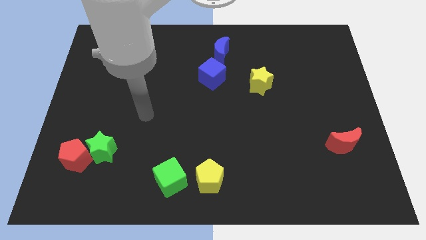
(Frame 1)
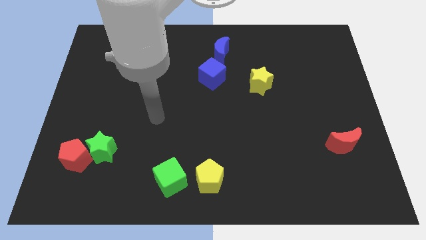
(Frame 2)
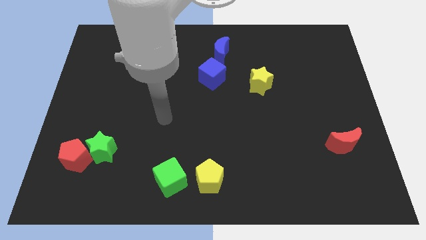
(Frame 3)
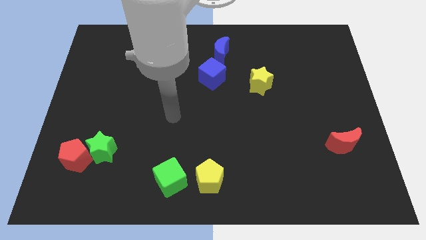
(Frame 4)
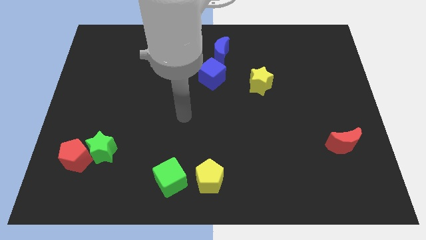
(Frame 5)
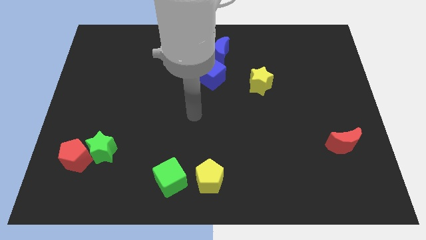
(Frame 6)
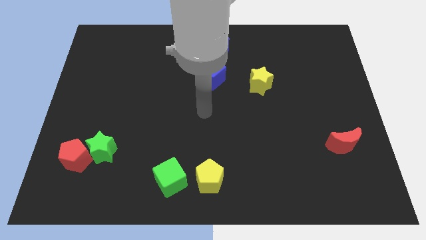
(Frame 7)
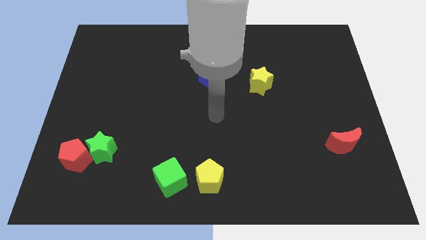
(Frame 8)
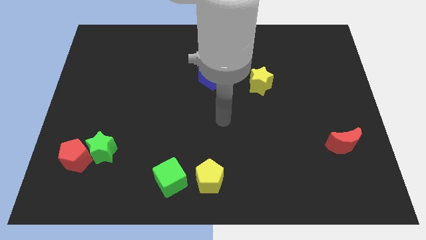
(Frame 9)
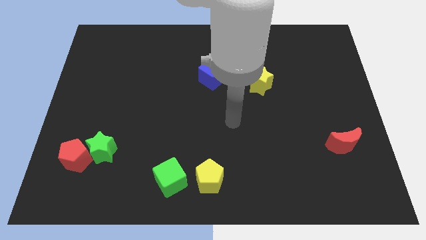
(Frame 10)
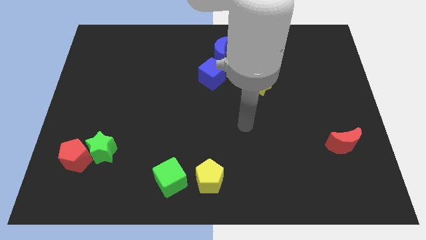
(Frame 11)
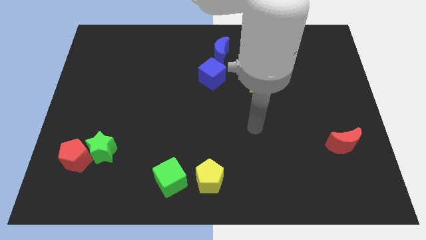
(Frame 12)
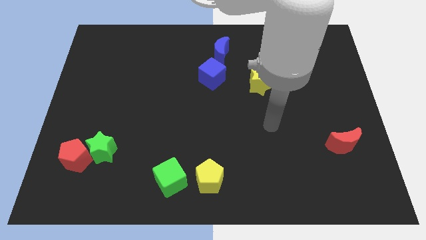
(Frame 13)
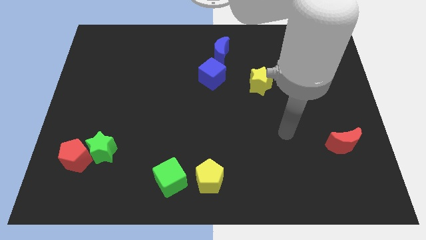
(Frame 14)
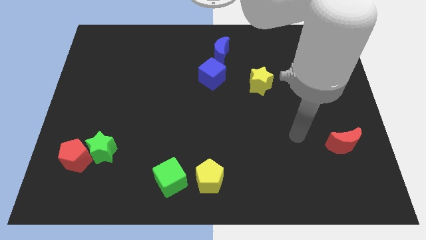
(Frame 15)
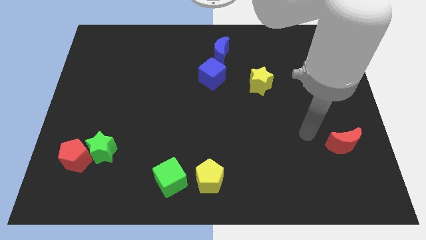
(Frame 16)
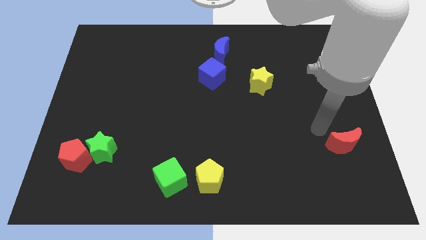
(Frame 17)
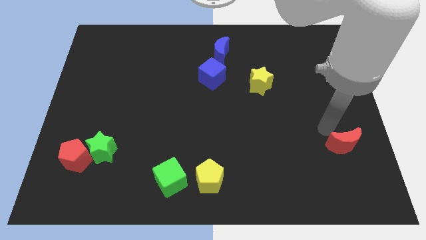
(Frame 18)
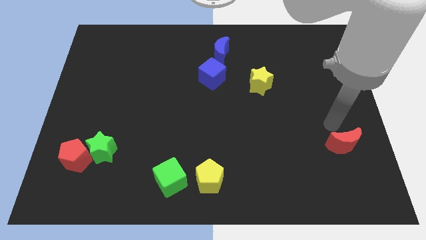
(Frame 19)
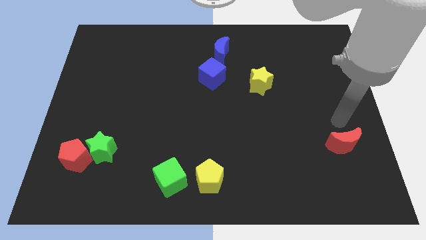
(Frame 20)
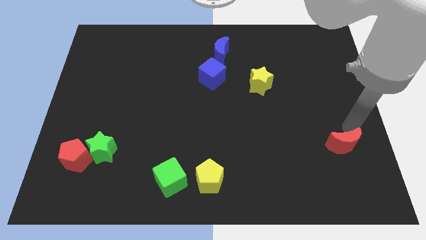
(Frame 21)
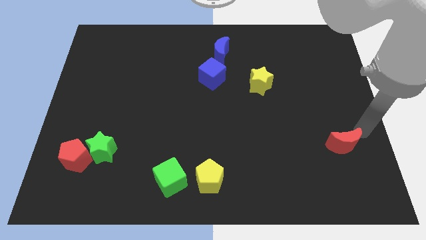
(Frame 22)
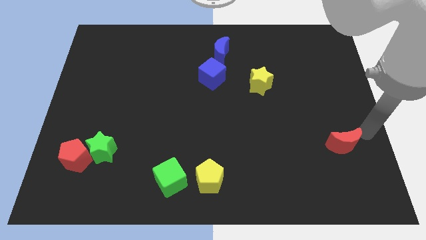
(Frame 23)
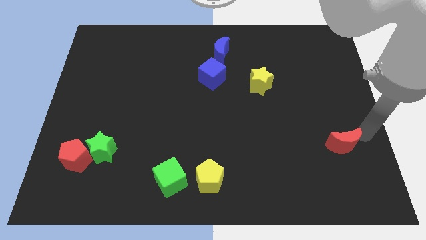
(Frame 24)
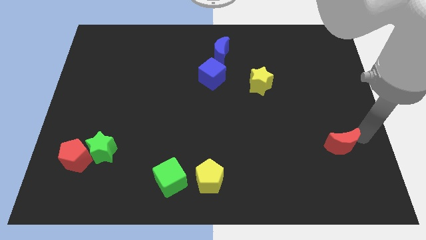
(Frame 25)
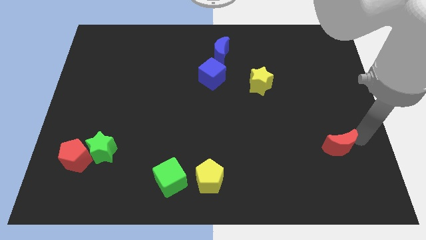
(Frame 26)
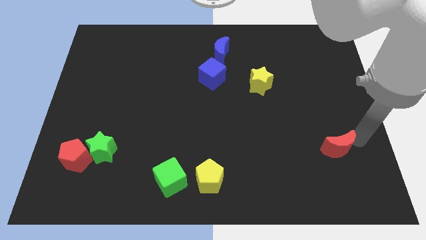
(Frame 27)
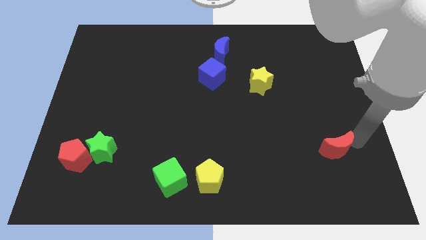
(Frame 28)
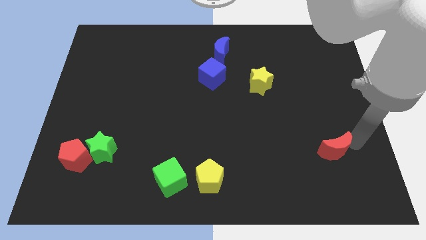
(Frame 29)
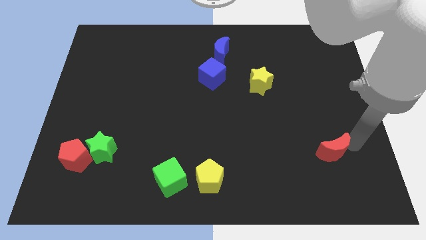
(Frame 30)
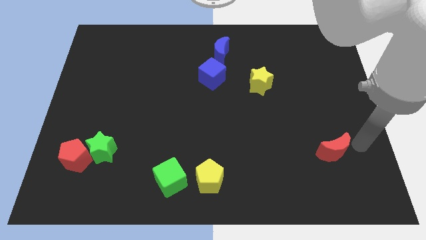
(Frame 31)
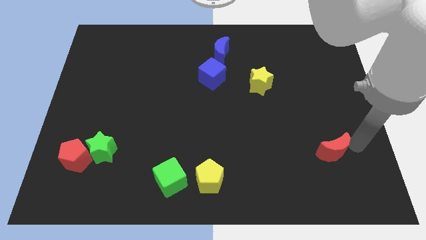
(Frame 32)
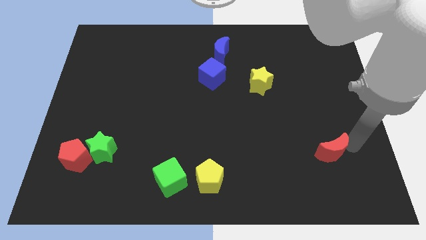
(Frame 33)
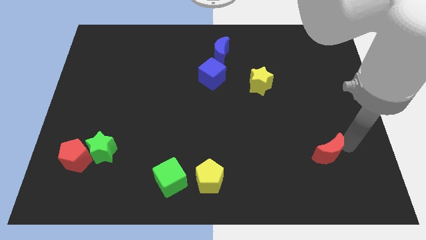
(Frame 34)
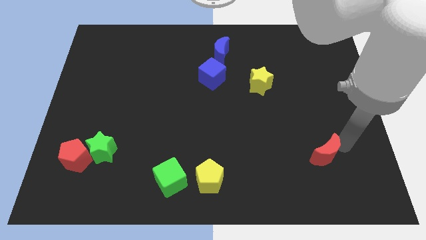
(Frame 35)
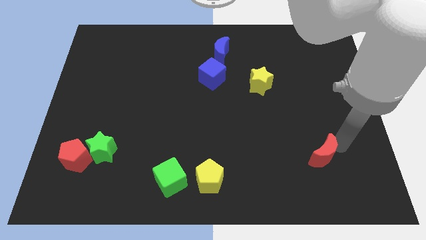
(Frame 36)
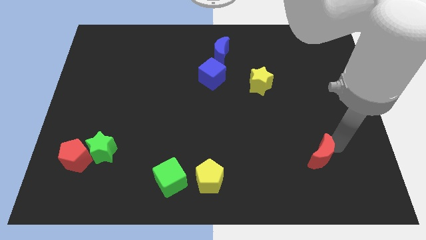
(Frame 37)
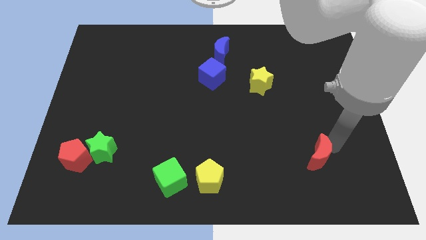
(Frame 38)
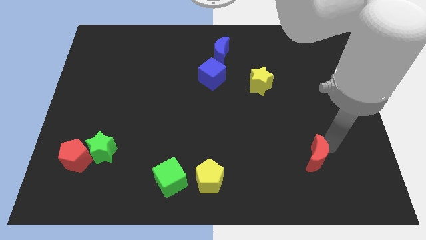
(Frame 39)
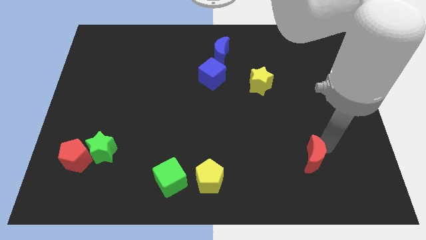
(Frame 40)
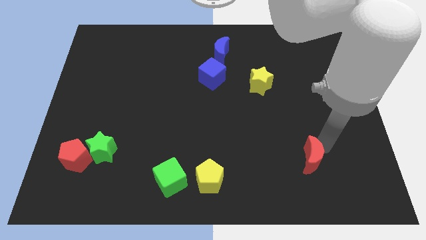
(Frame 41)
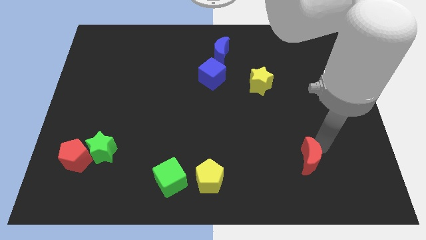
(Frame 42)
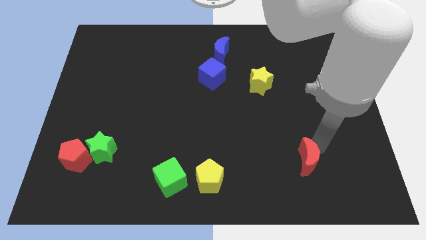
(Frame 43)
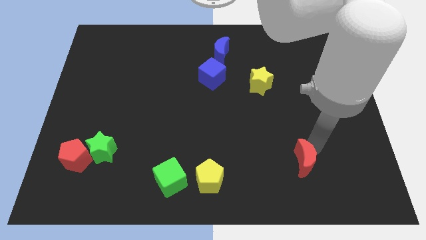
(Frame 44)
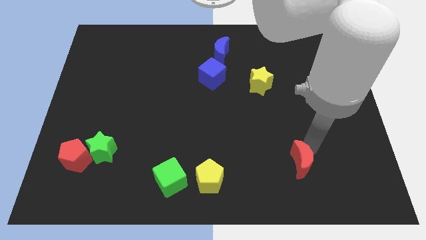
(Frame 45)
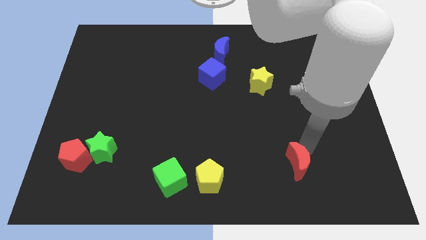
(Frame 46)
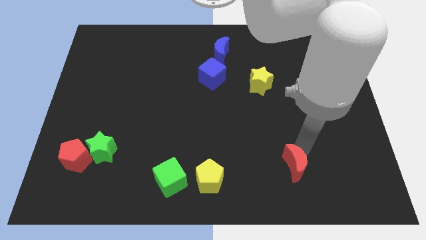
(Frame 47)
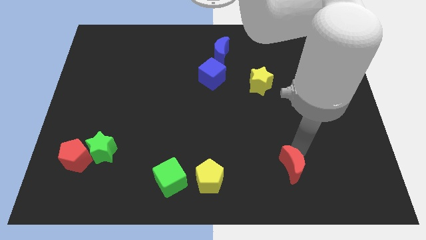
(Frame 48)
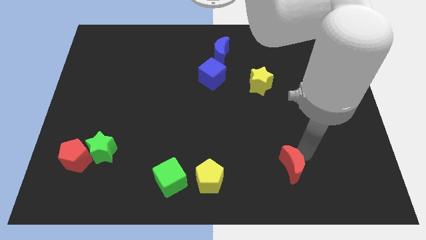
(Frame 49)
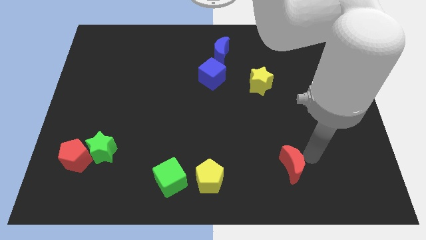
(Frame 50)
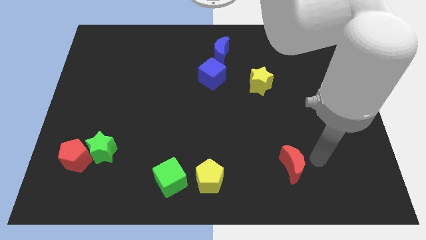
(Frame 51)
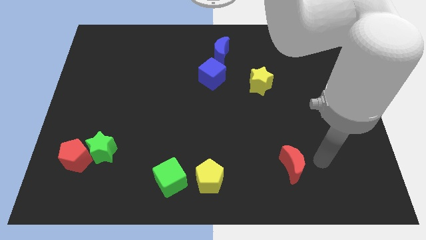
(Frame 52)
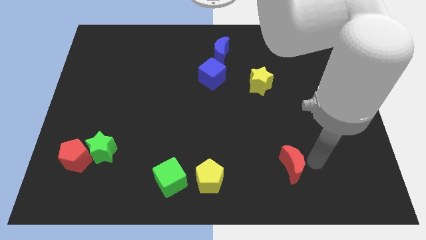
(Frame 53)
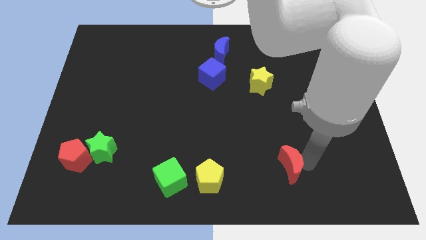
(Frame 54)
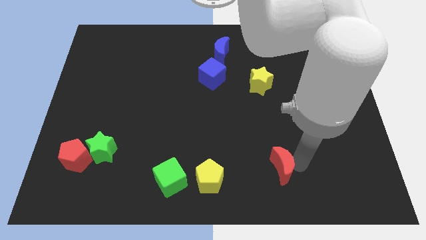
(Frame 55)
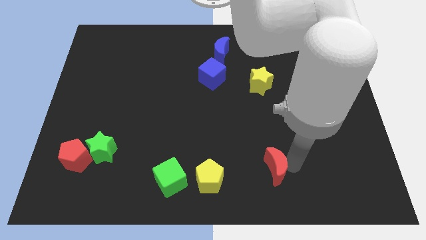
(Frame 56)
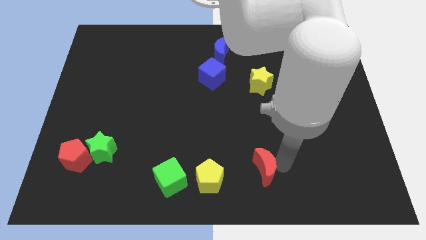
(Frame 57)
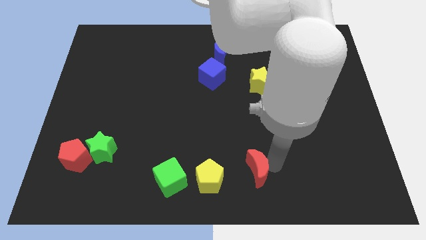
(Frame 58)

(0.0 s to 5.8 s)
move the red moon to the bottom
